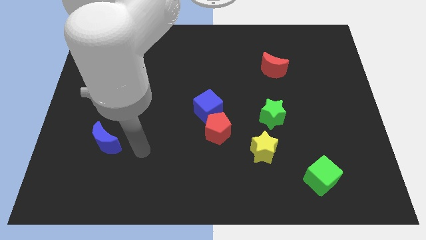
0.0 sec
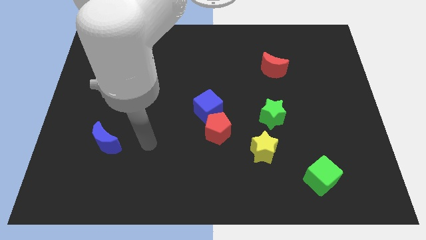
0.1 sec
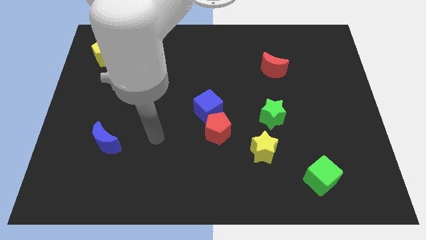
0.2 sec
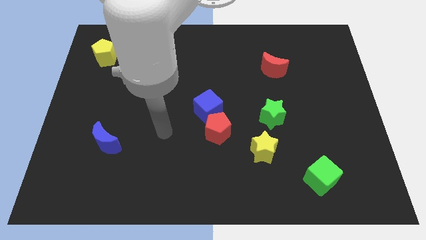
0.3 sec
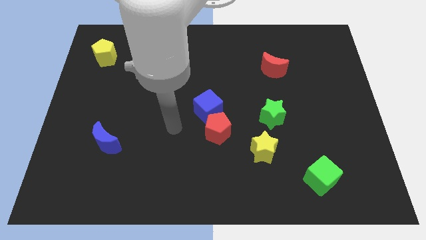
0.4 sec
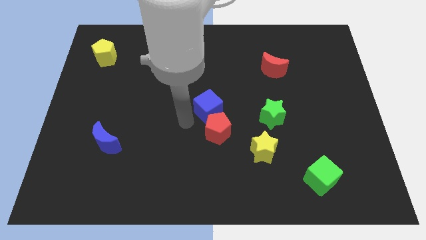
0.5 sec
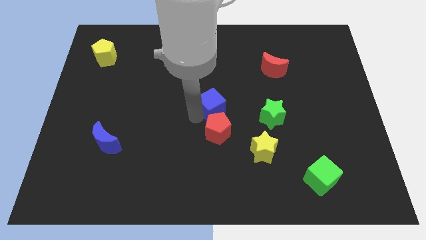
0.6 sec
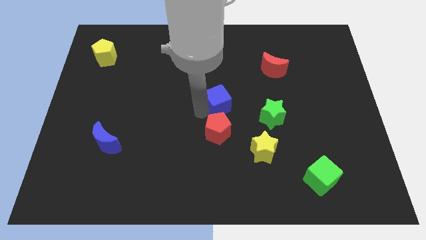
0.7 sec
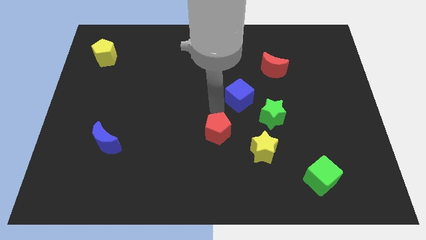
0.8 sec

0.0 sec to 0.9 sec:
pull the red pentagon apart from the blue cube

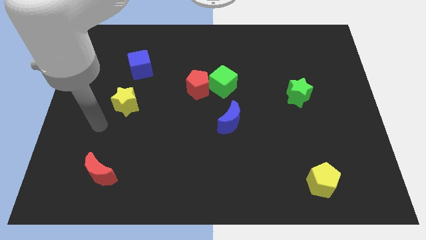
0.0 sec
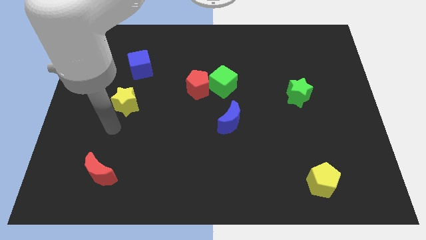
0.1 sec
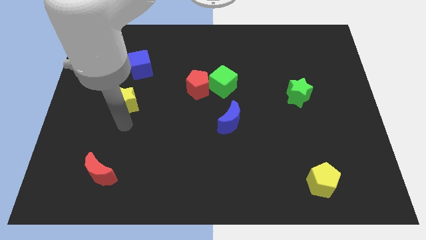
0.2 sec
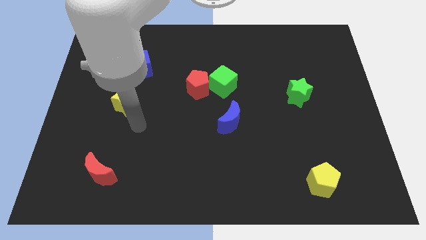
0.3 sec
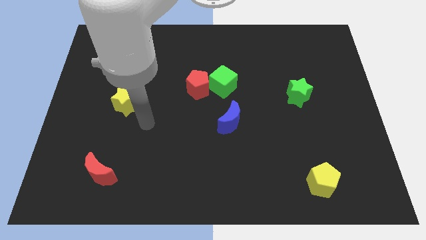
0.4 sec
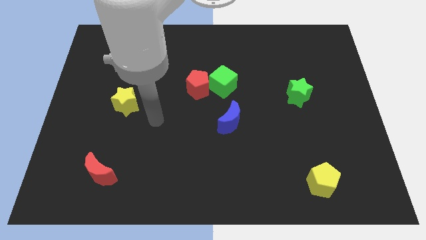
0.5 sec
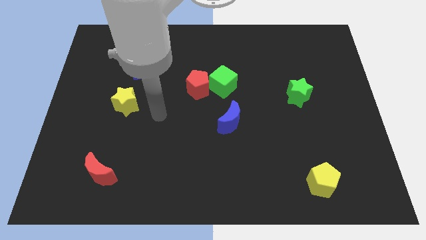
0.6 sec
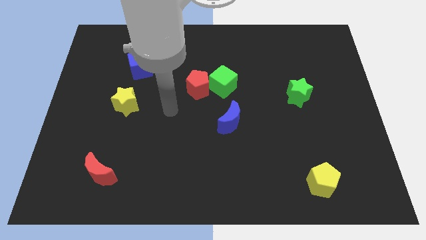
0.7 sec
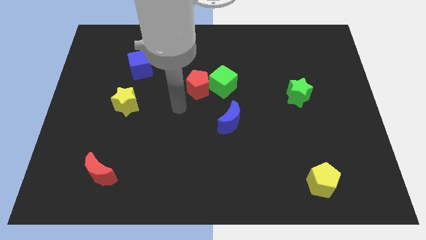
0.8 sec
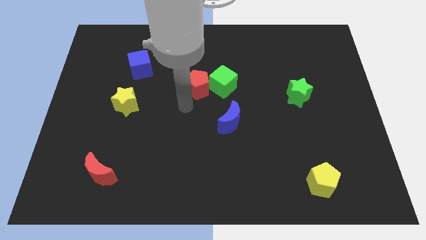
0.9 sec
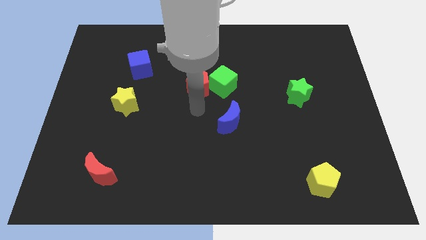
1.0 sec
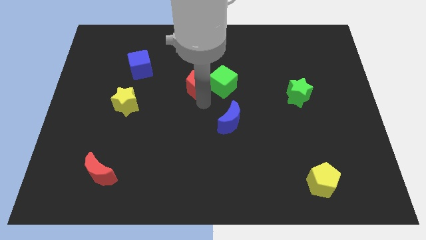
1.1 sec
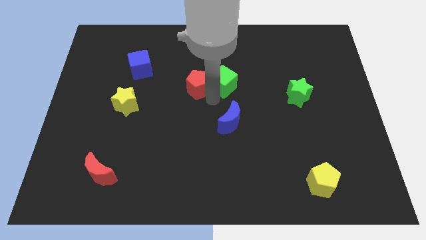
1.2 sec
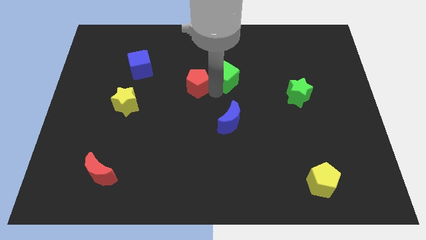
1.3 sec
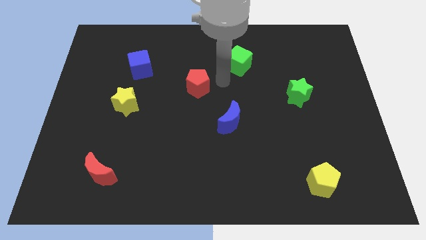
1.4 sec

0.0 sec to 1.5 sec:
pull the red pentagon apart from the green cube

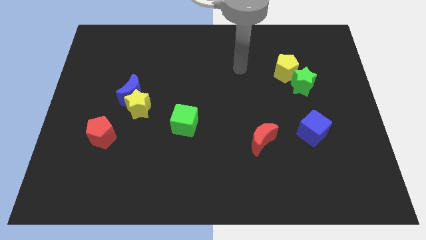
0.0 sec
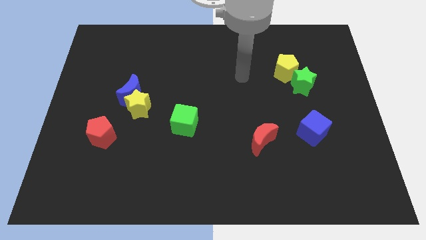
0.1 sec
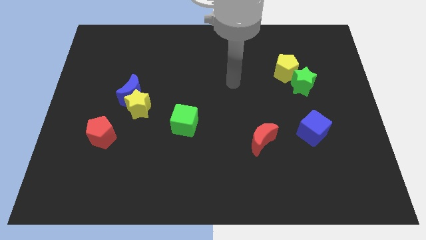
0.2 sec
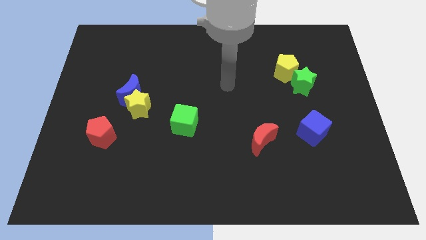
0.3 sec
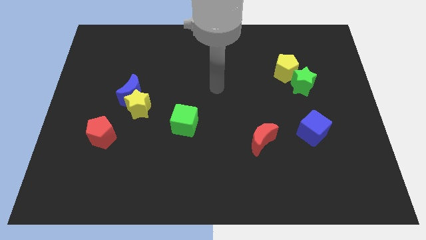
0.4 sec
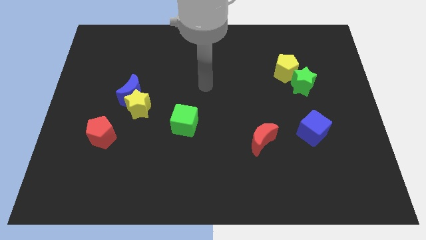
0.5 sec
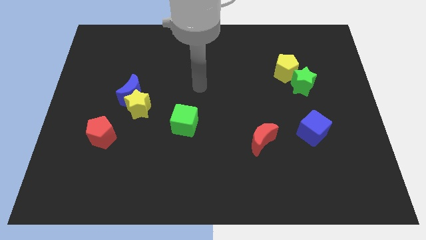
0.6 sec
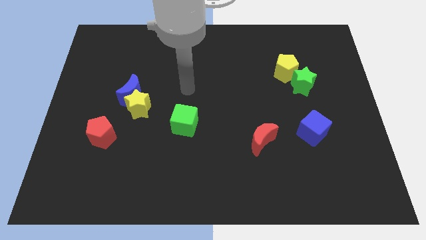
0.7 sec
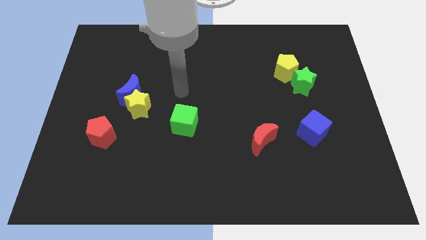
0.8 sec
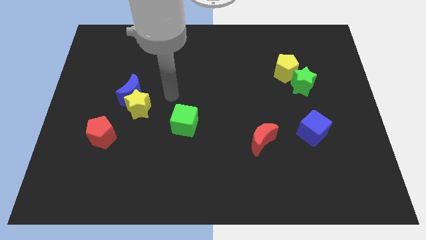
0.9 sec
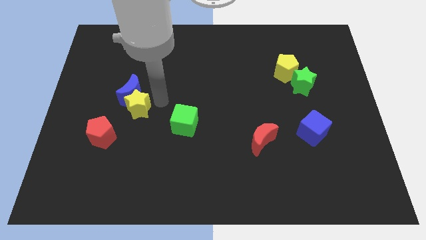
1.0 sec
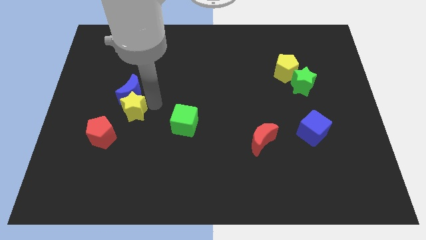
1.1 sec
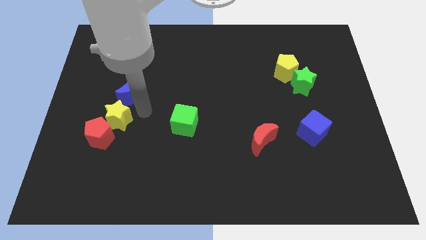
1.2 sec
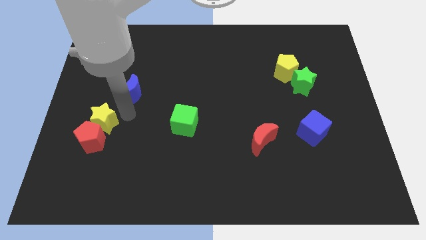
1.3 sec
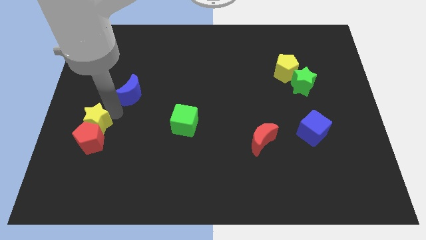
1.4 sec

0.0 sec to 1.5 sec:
separate the blue moon from the yellow star

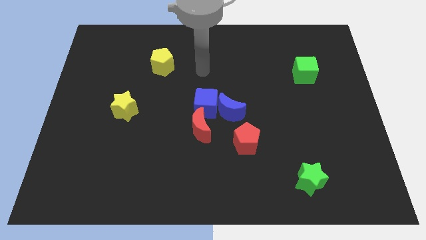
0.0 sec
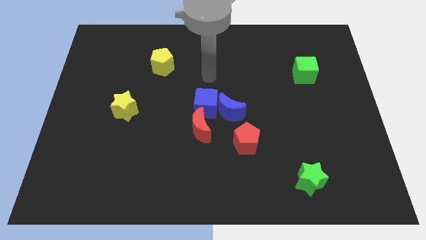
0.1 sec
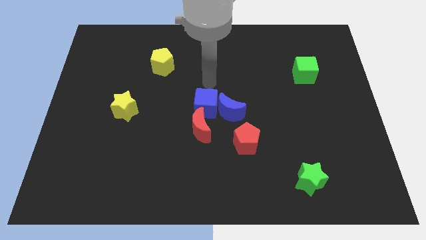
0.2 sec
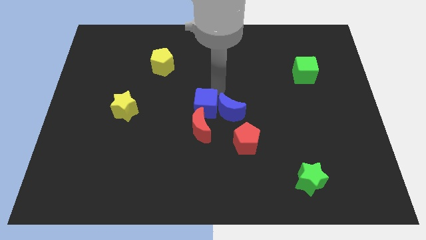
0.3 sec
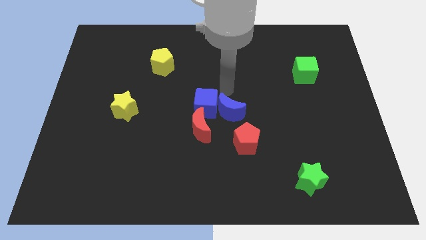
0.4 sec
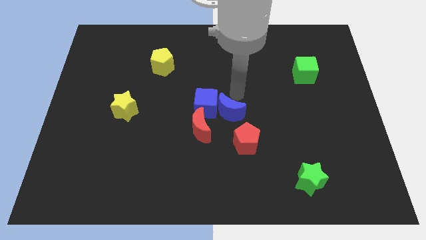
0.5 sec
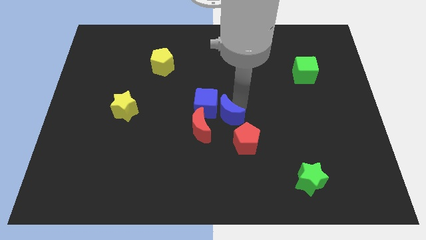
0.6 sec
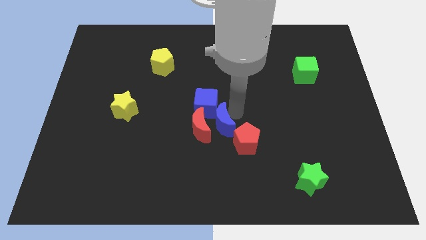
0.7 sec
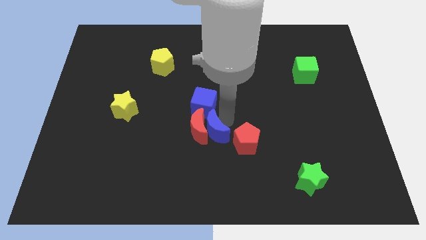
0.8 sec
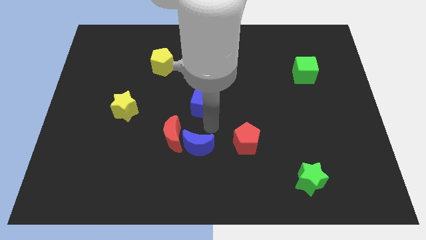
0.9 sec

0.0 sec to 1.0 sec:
pull the blue cube apart from the blue moon and red moon

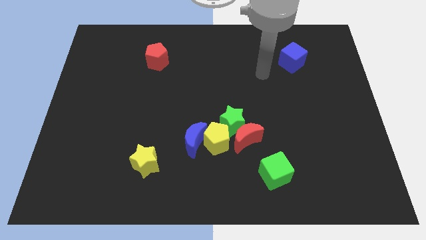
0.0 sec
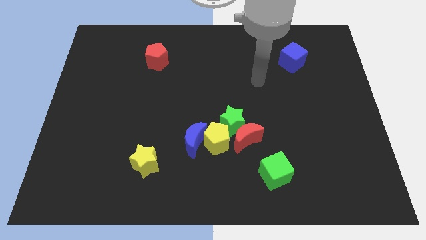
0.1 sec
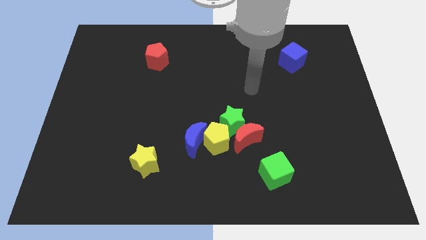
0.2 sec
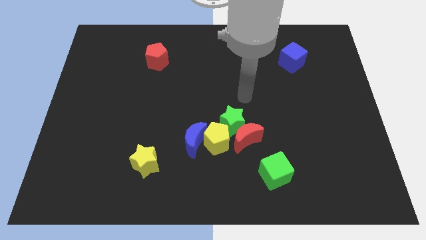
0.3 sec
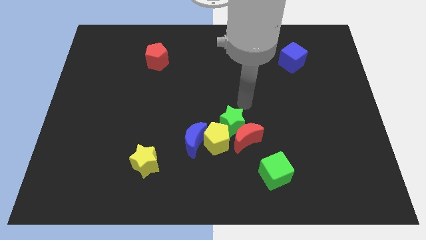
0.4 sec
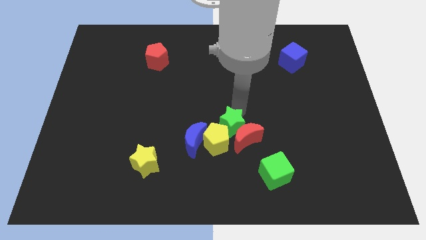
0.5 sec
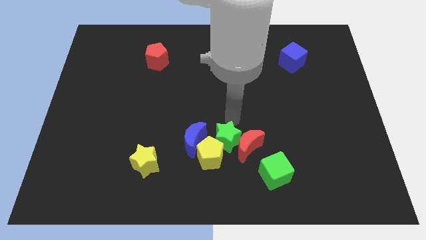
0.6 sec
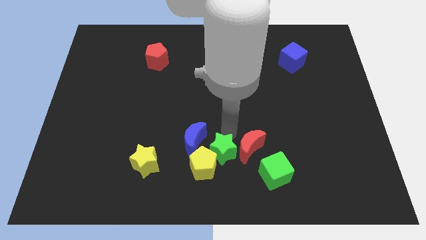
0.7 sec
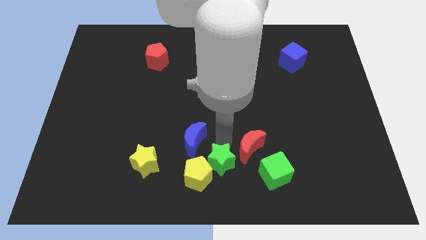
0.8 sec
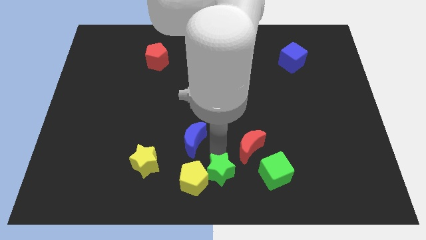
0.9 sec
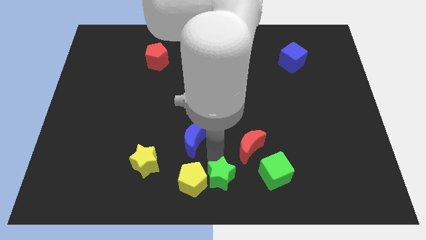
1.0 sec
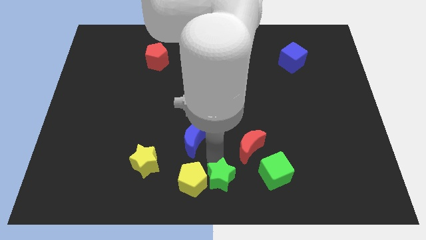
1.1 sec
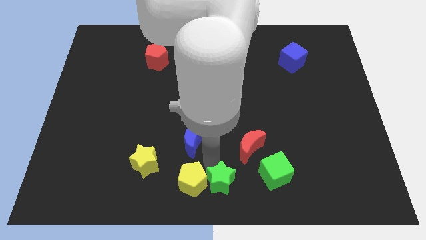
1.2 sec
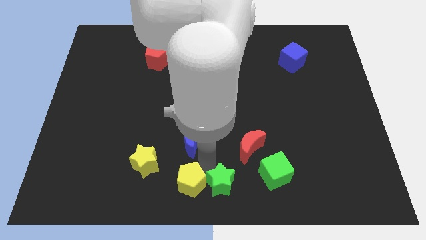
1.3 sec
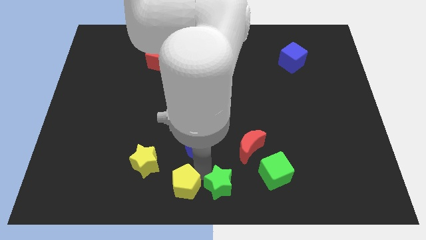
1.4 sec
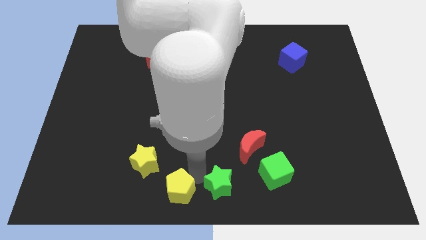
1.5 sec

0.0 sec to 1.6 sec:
separate the yellow pentagon from the group of blocks

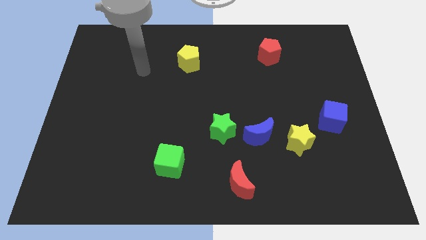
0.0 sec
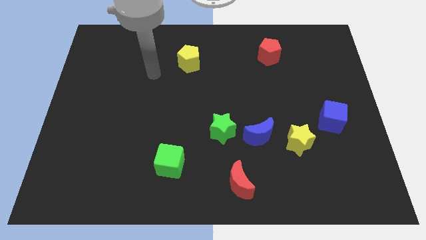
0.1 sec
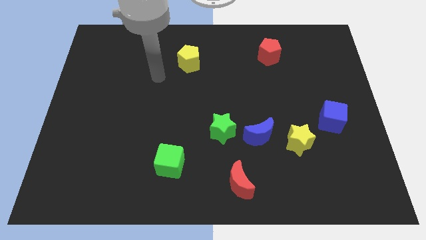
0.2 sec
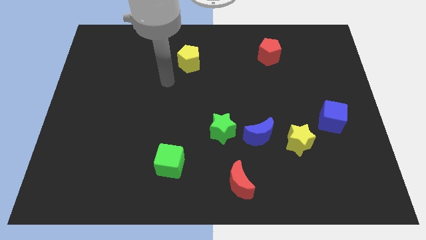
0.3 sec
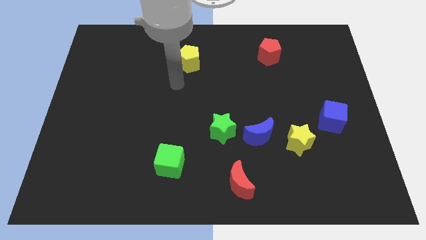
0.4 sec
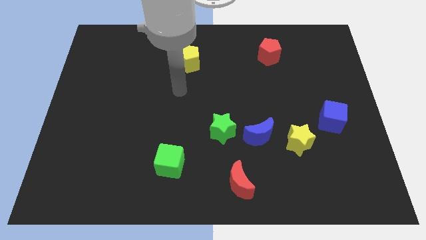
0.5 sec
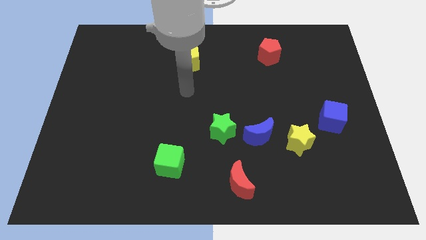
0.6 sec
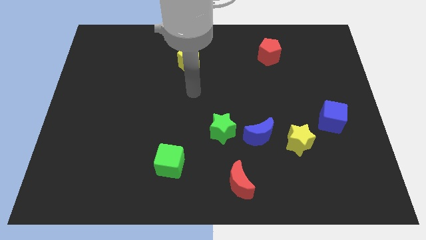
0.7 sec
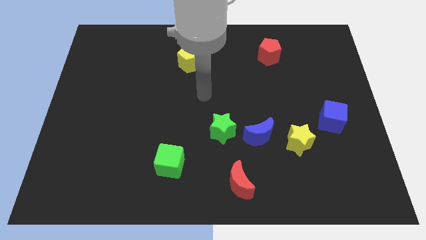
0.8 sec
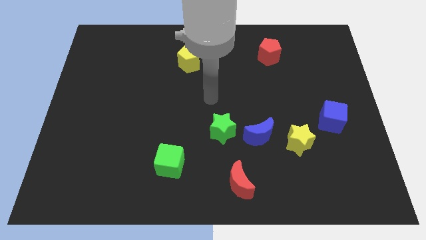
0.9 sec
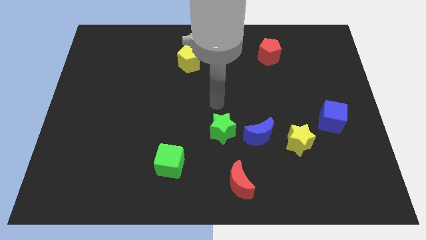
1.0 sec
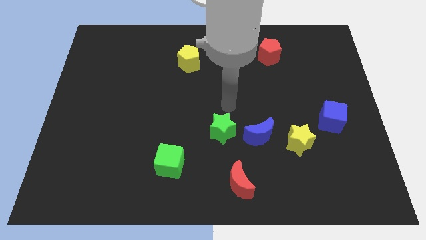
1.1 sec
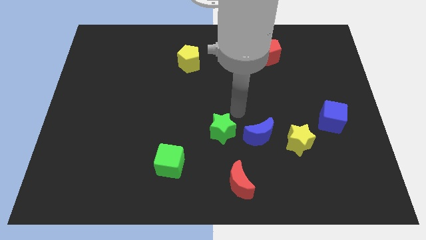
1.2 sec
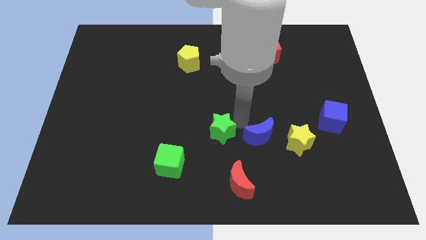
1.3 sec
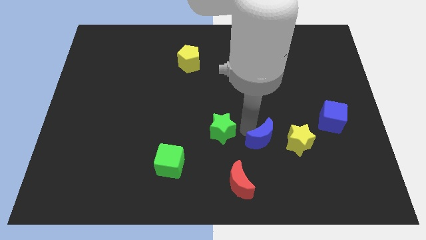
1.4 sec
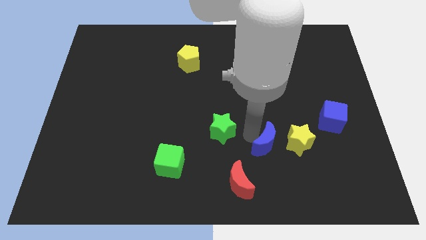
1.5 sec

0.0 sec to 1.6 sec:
pull the green star apart from the blue moon

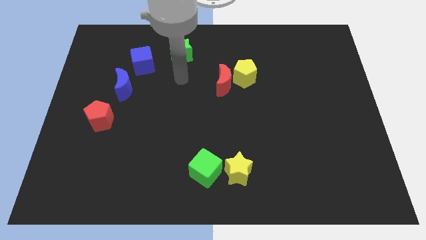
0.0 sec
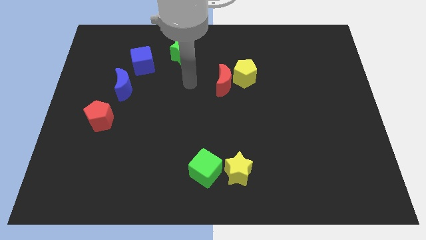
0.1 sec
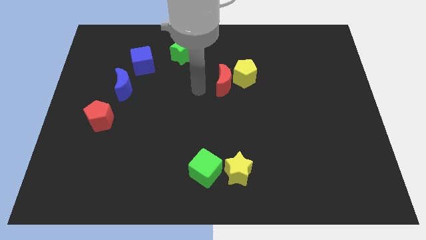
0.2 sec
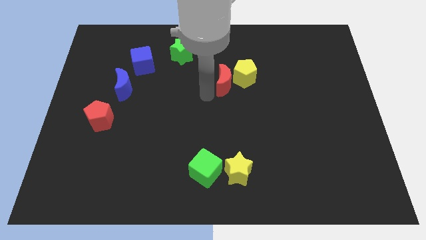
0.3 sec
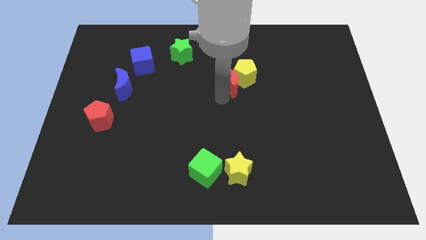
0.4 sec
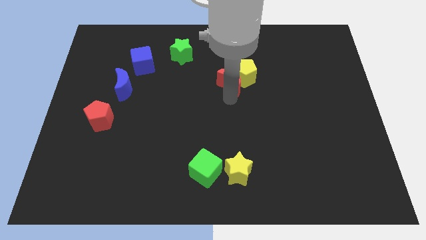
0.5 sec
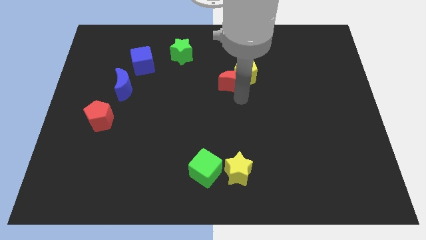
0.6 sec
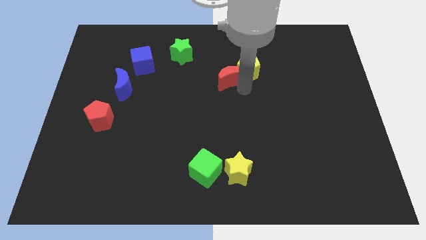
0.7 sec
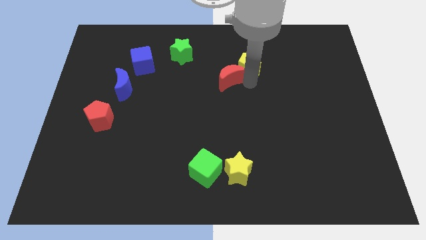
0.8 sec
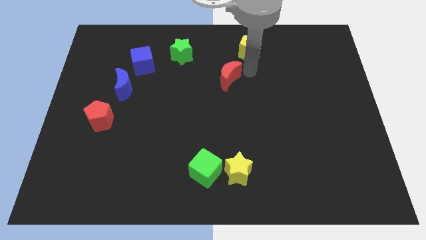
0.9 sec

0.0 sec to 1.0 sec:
move the red moon away from the yellow pentagon

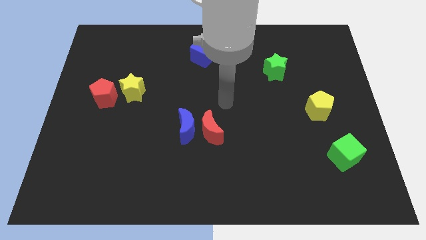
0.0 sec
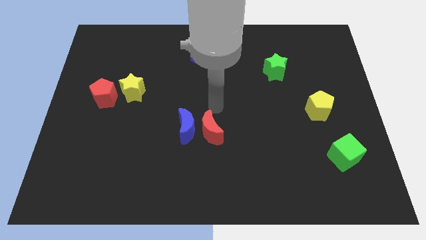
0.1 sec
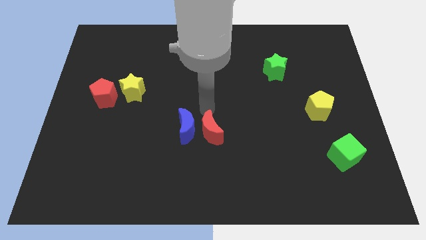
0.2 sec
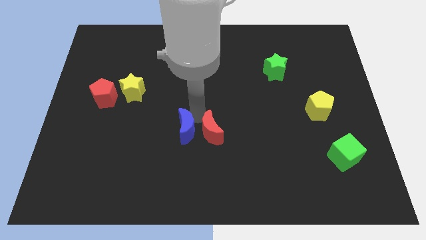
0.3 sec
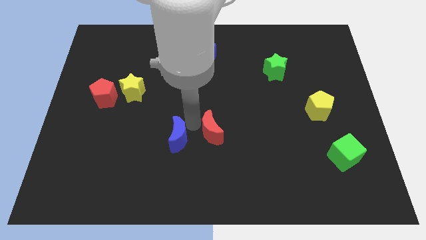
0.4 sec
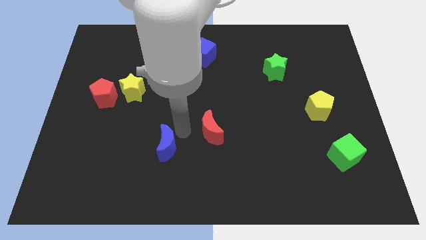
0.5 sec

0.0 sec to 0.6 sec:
separate the red moon from the blue moon
